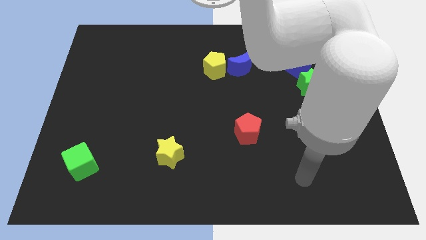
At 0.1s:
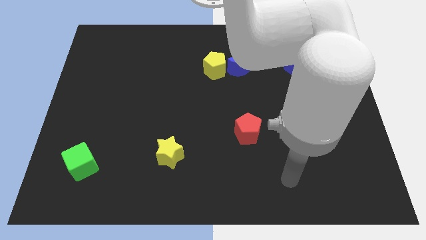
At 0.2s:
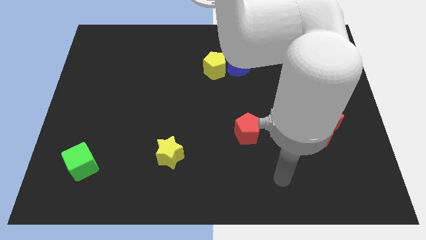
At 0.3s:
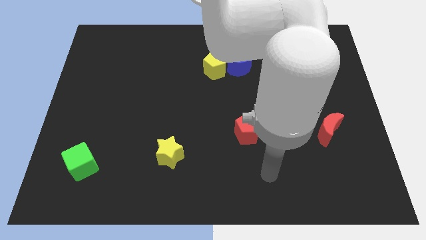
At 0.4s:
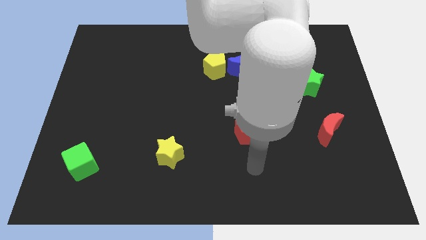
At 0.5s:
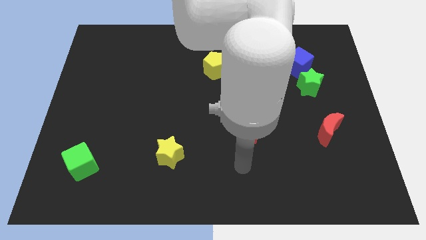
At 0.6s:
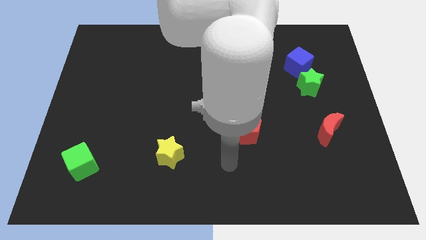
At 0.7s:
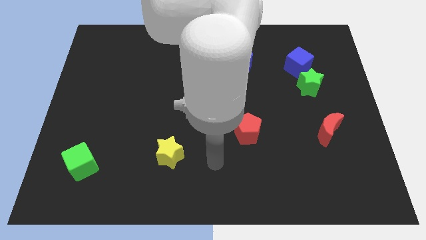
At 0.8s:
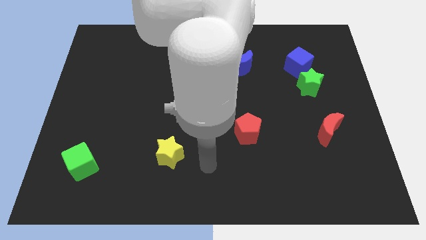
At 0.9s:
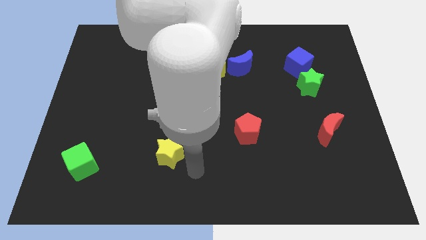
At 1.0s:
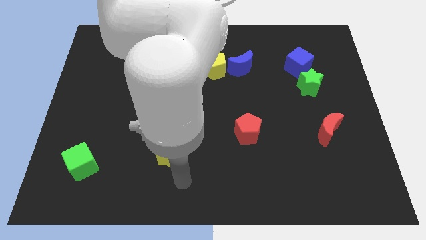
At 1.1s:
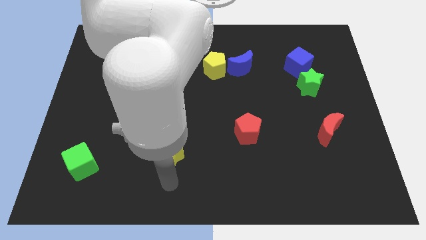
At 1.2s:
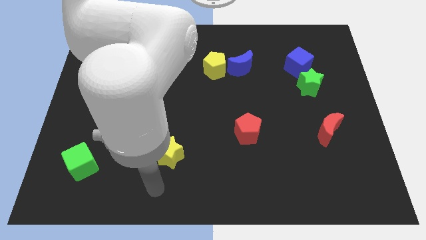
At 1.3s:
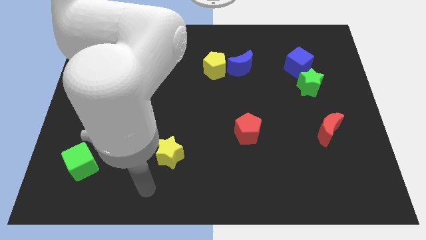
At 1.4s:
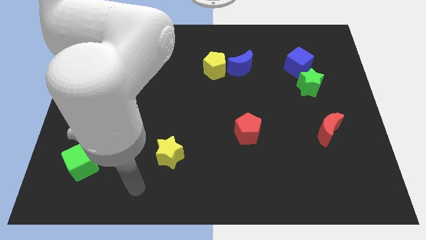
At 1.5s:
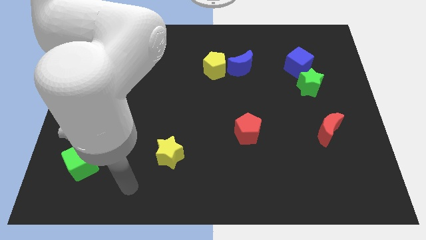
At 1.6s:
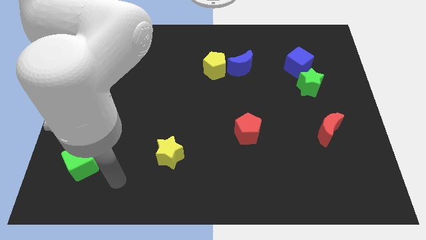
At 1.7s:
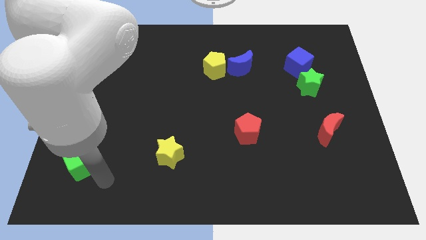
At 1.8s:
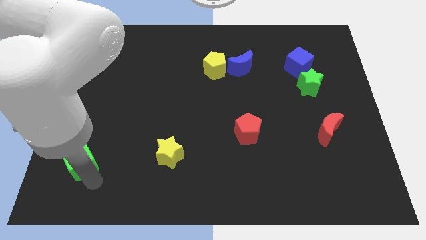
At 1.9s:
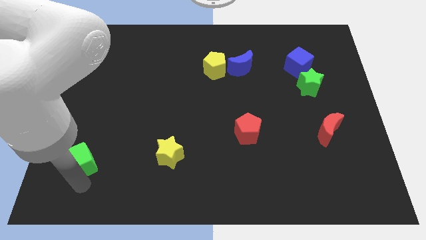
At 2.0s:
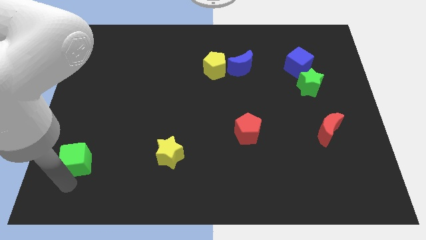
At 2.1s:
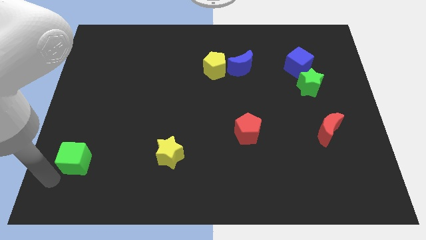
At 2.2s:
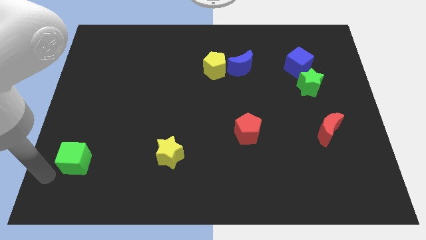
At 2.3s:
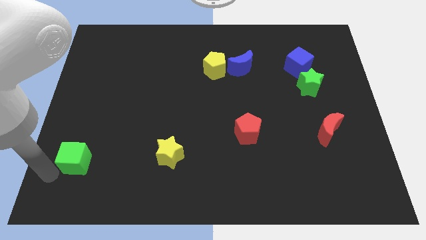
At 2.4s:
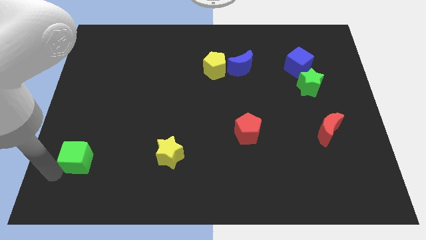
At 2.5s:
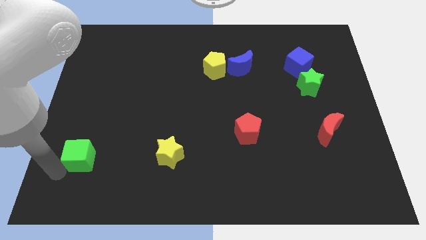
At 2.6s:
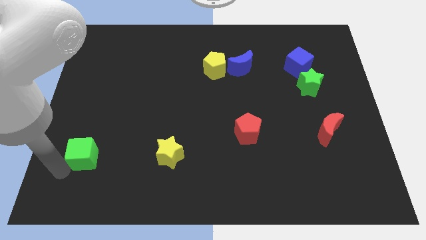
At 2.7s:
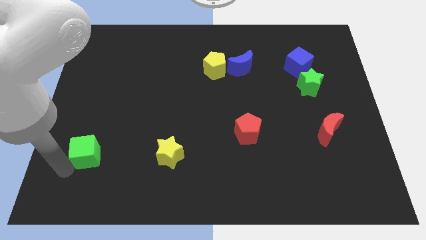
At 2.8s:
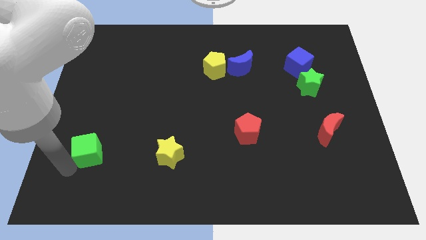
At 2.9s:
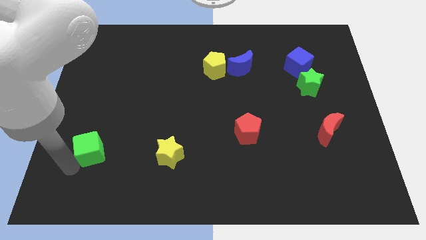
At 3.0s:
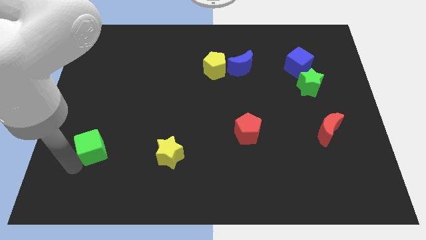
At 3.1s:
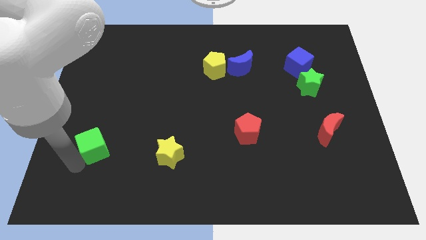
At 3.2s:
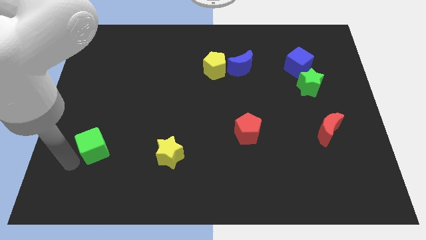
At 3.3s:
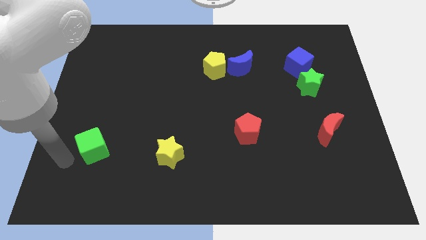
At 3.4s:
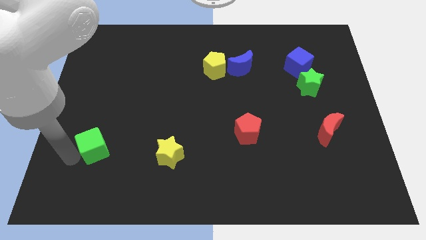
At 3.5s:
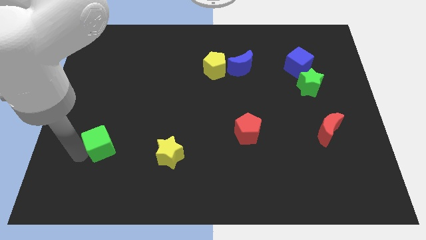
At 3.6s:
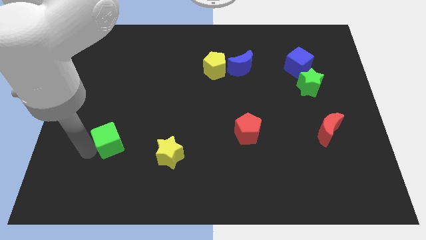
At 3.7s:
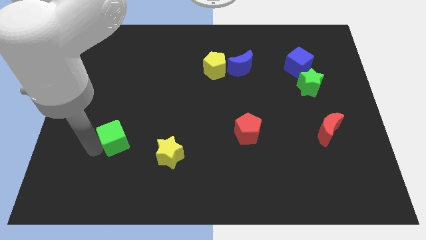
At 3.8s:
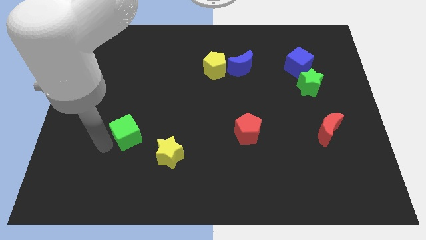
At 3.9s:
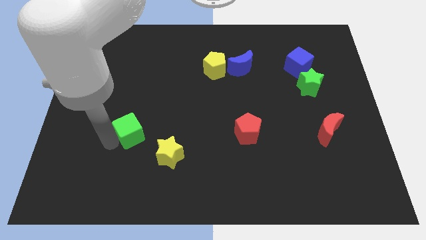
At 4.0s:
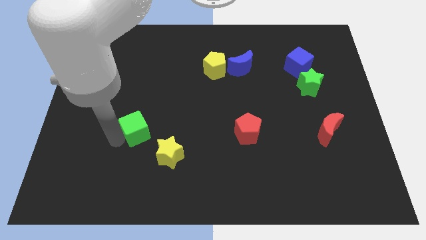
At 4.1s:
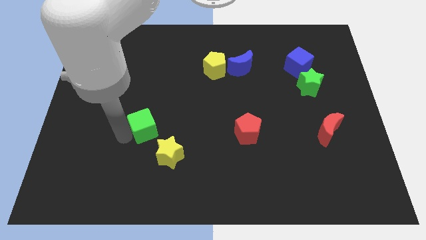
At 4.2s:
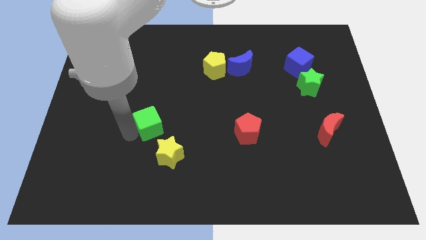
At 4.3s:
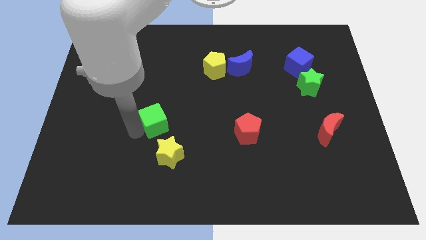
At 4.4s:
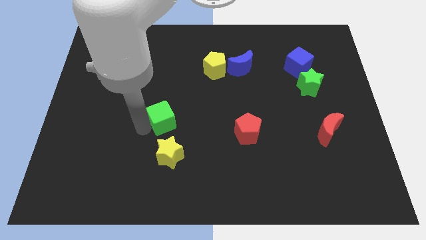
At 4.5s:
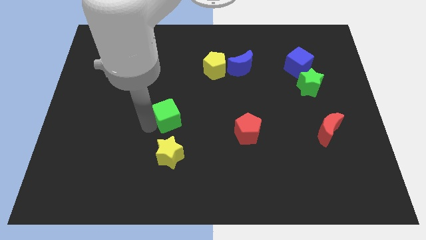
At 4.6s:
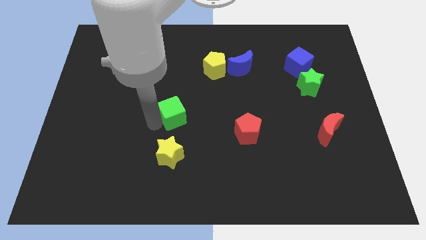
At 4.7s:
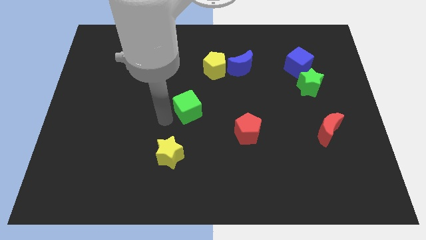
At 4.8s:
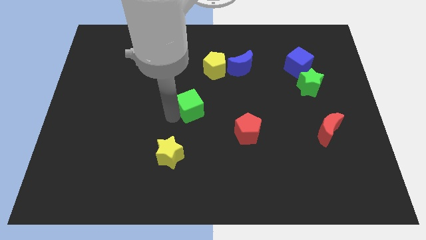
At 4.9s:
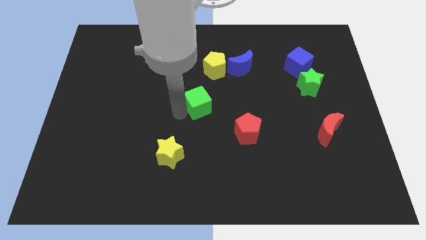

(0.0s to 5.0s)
move the green cube below the yellow pentagon

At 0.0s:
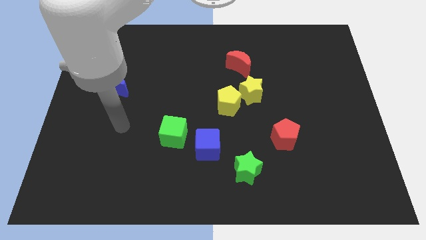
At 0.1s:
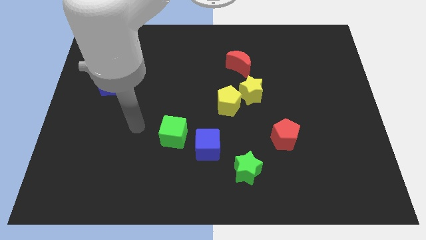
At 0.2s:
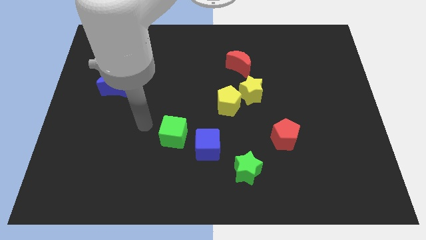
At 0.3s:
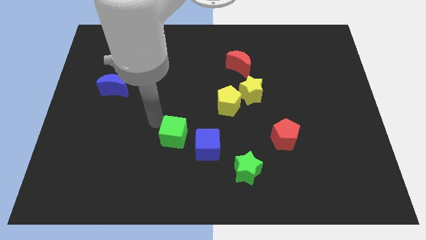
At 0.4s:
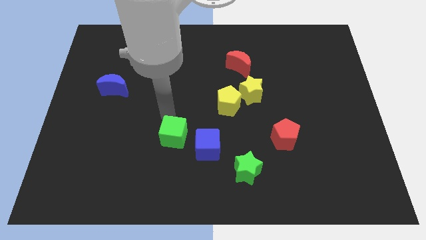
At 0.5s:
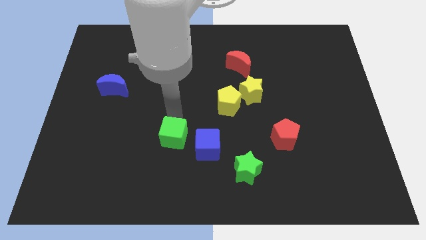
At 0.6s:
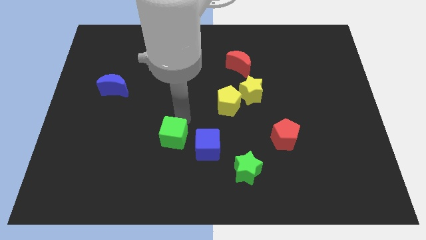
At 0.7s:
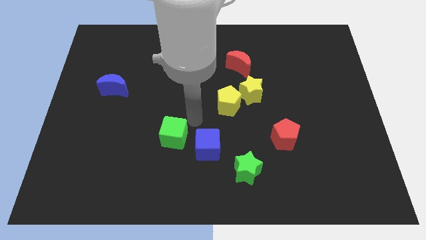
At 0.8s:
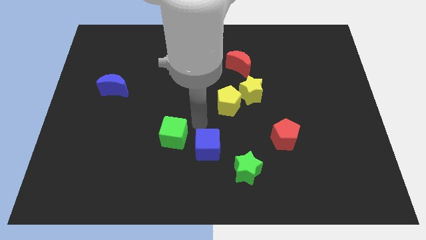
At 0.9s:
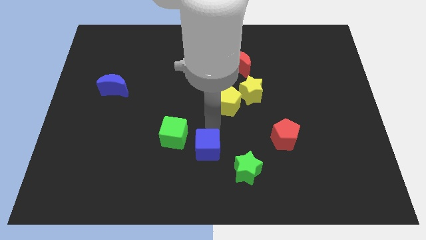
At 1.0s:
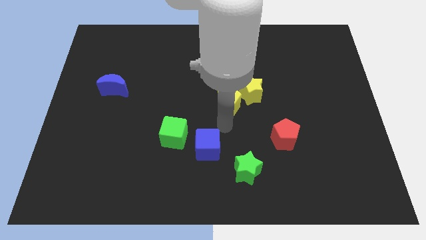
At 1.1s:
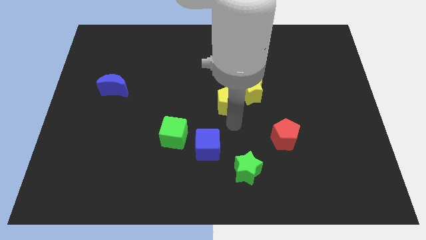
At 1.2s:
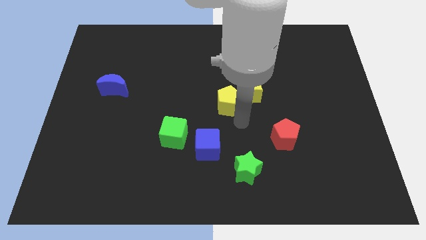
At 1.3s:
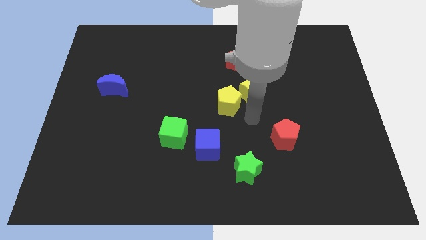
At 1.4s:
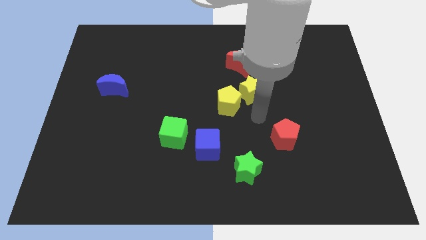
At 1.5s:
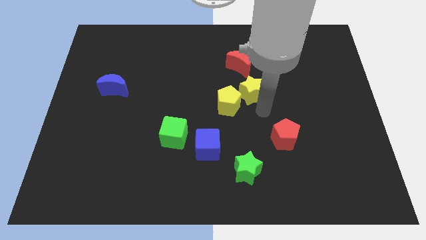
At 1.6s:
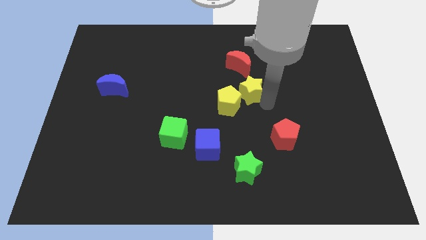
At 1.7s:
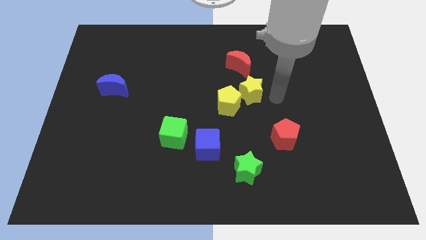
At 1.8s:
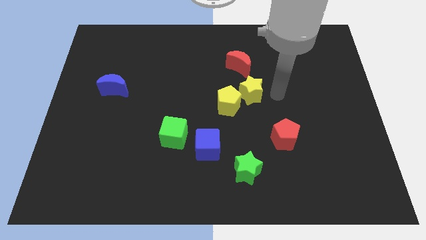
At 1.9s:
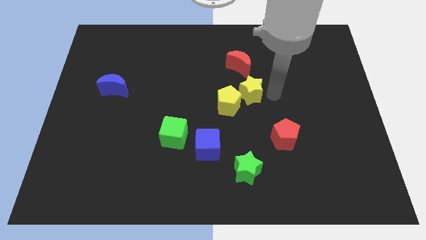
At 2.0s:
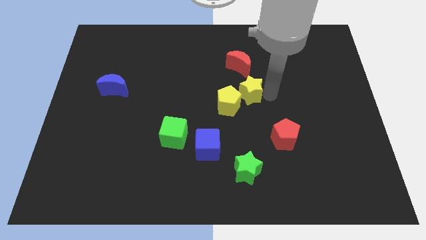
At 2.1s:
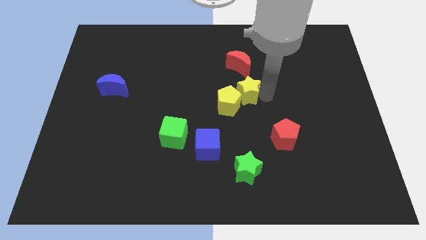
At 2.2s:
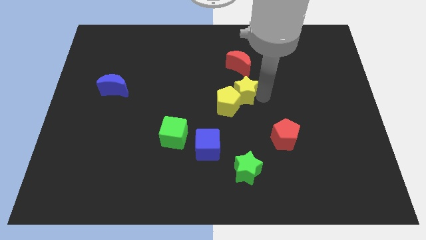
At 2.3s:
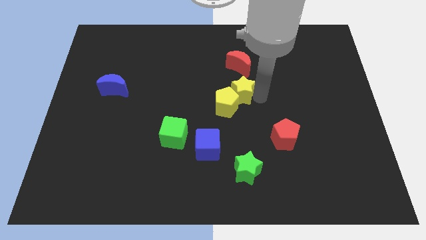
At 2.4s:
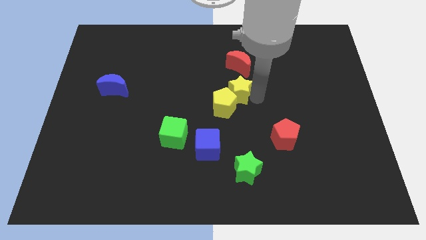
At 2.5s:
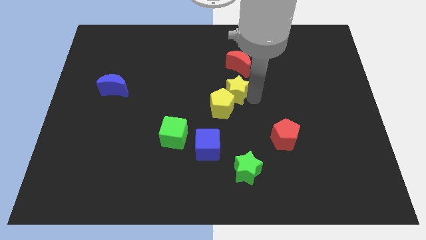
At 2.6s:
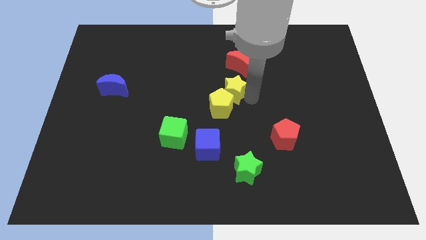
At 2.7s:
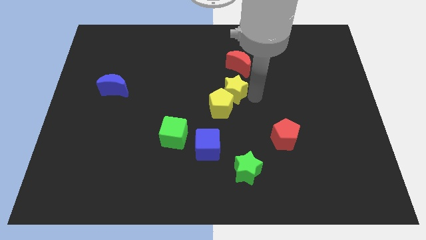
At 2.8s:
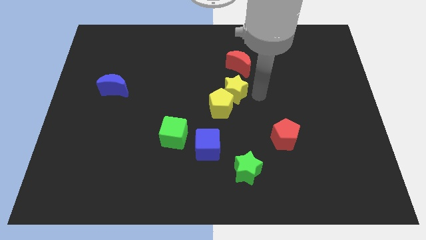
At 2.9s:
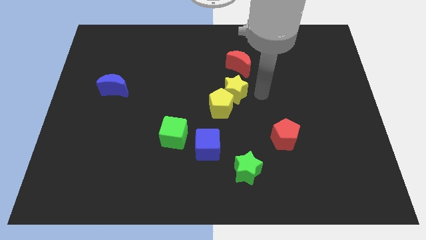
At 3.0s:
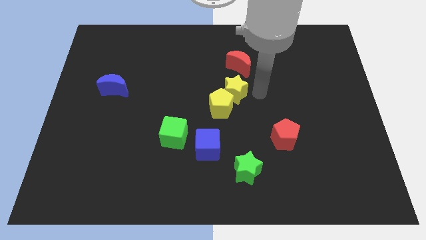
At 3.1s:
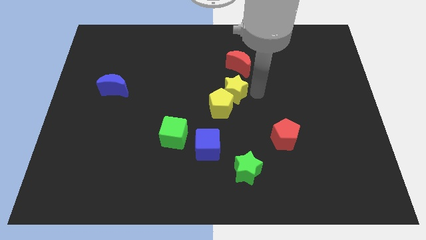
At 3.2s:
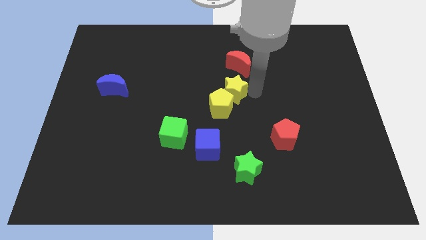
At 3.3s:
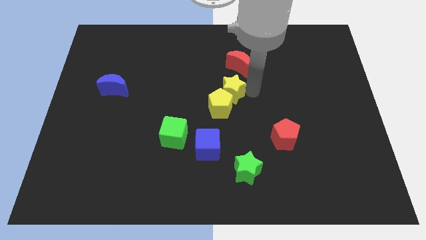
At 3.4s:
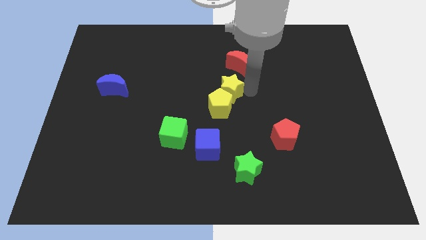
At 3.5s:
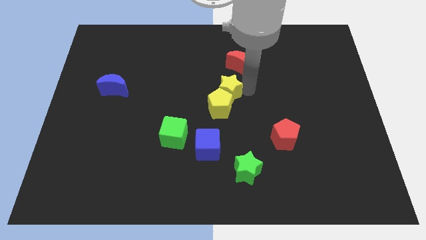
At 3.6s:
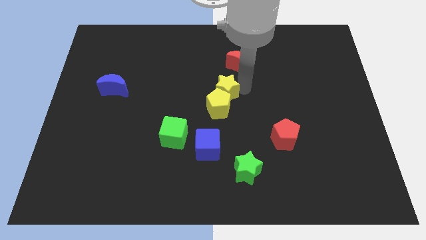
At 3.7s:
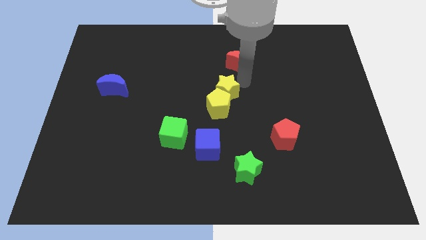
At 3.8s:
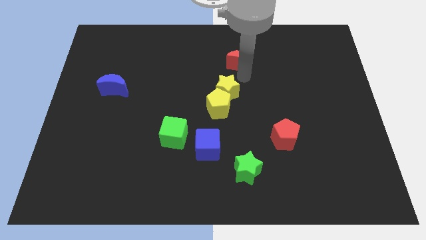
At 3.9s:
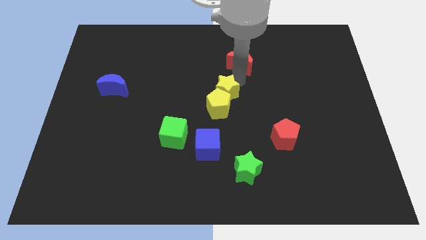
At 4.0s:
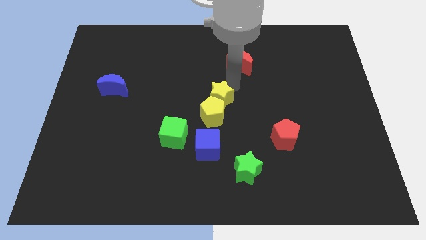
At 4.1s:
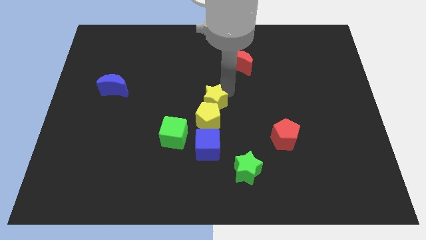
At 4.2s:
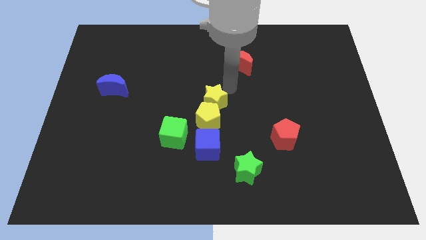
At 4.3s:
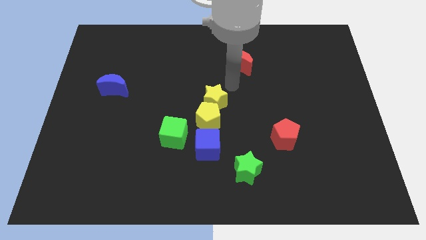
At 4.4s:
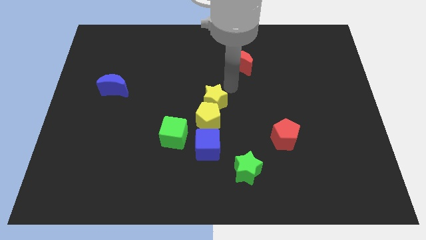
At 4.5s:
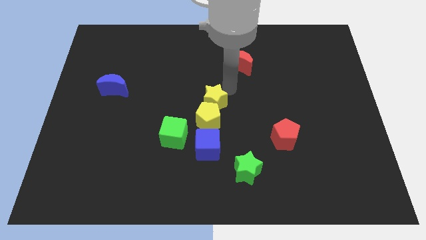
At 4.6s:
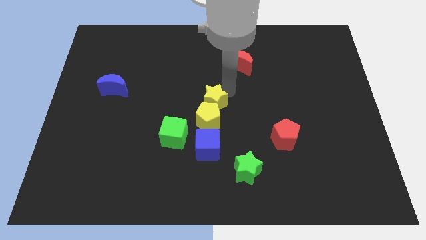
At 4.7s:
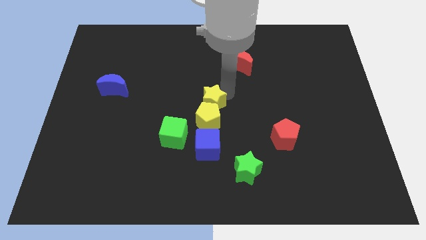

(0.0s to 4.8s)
move the yellow star to the top right of the green cube
